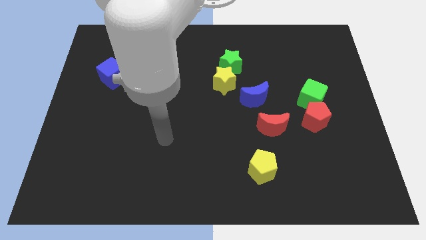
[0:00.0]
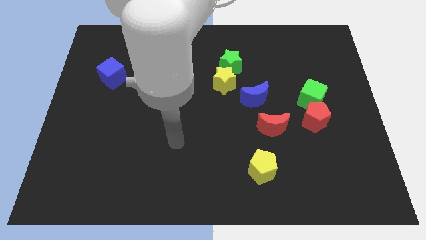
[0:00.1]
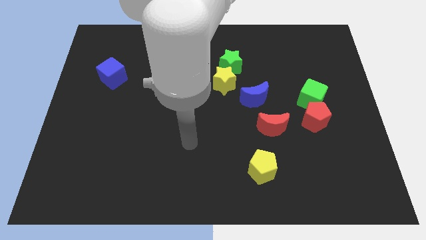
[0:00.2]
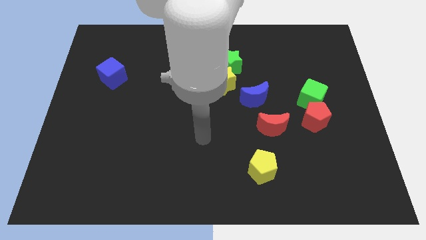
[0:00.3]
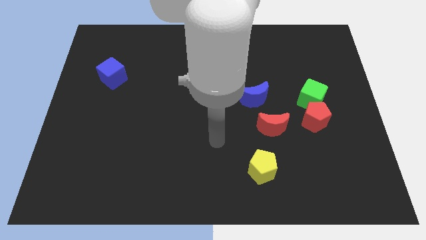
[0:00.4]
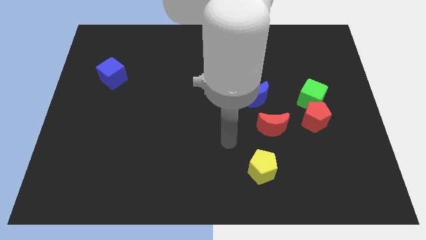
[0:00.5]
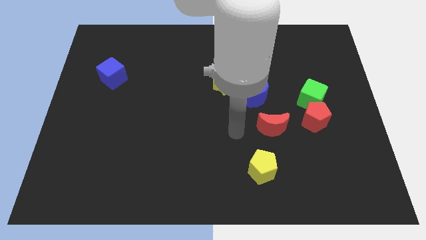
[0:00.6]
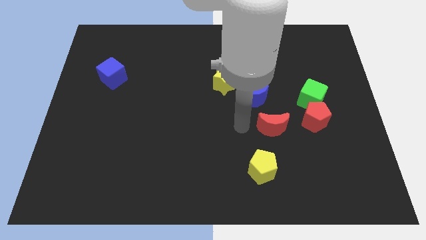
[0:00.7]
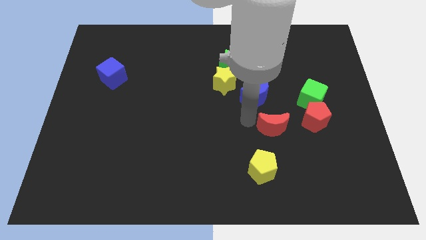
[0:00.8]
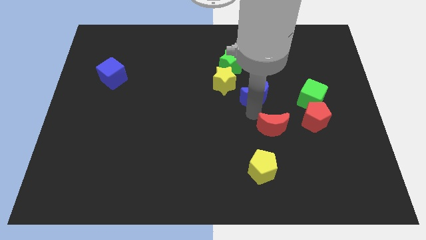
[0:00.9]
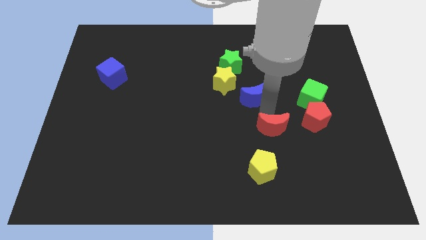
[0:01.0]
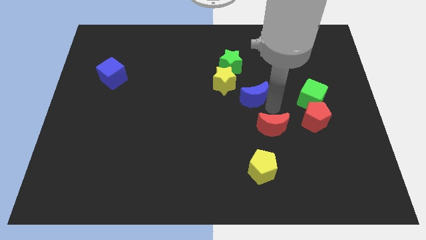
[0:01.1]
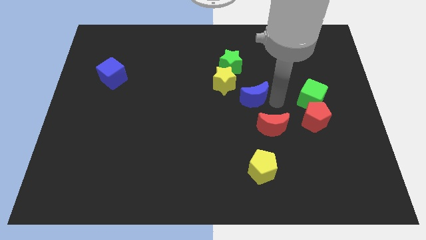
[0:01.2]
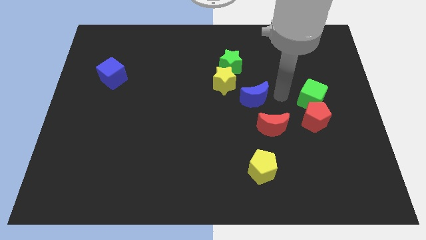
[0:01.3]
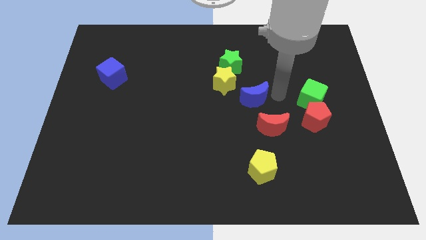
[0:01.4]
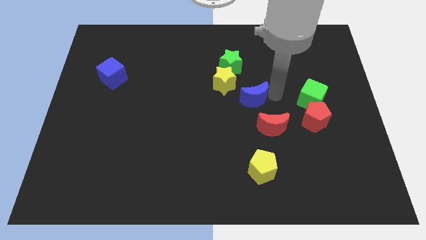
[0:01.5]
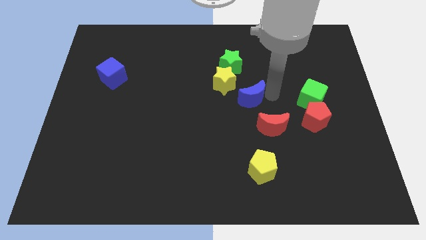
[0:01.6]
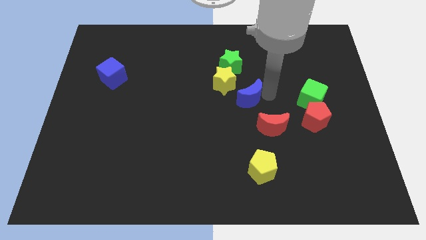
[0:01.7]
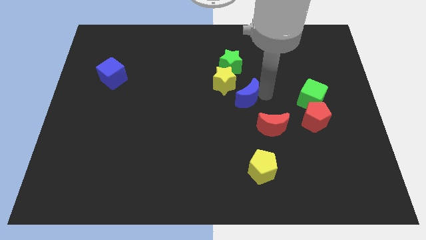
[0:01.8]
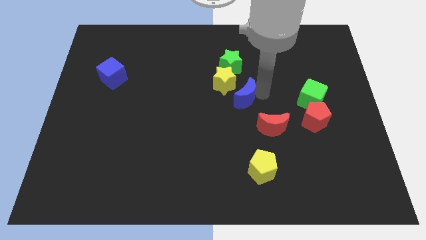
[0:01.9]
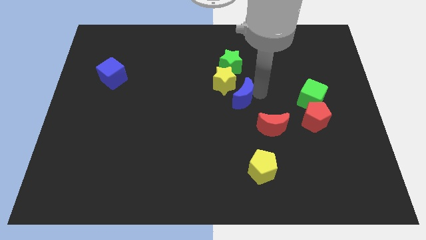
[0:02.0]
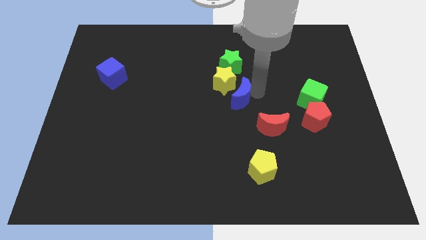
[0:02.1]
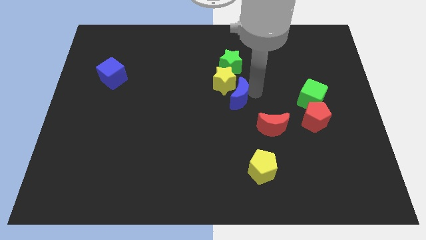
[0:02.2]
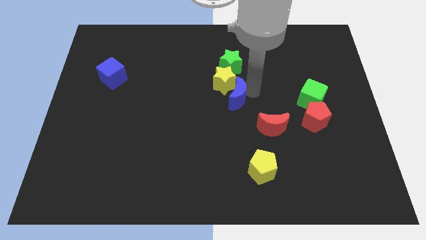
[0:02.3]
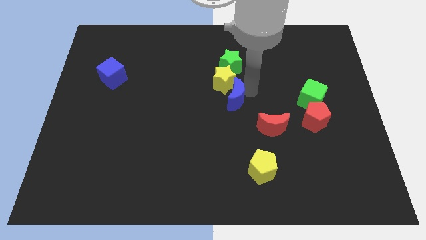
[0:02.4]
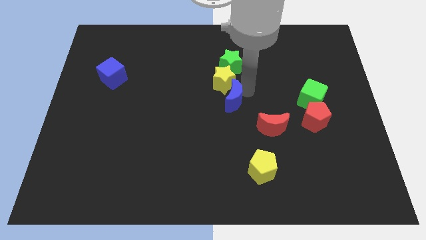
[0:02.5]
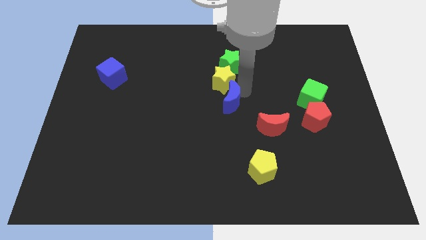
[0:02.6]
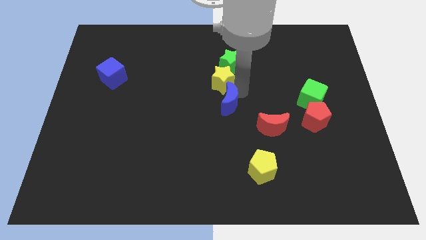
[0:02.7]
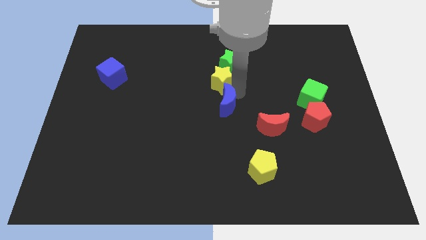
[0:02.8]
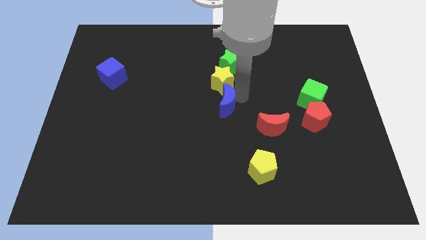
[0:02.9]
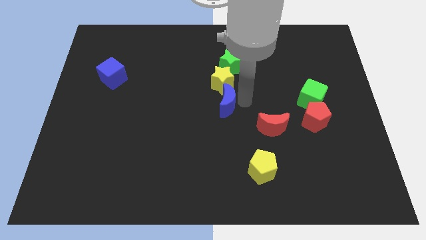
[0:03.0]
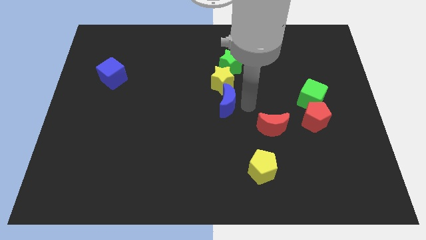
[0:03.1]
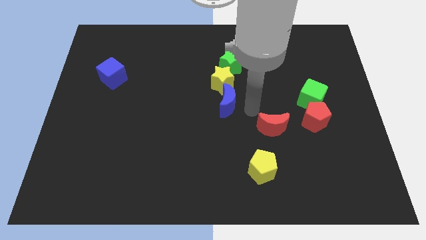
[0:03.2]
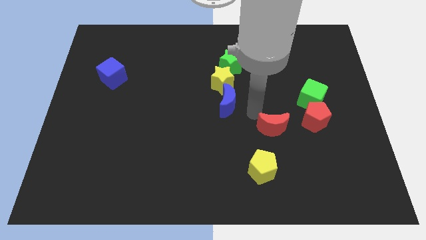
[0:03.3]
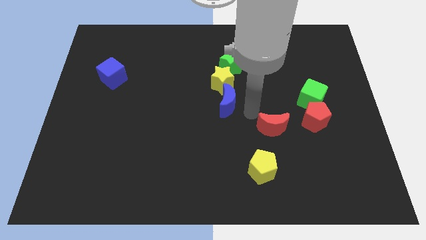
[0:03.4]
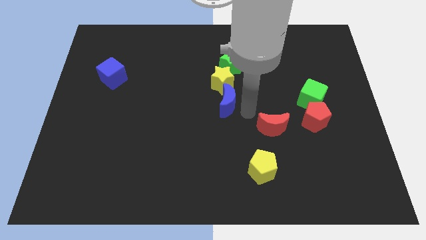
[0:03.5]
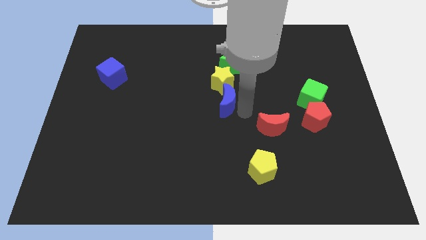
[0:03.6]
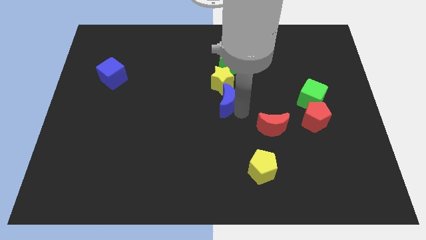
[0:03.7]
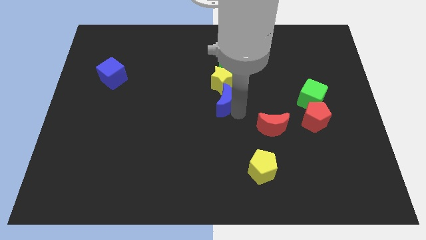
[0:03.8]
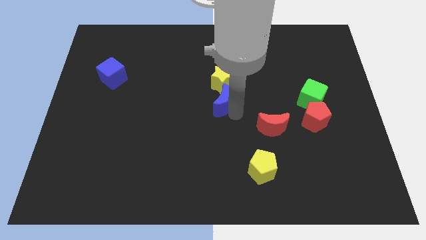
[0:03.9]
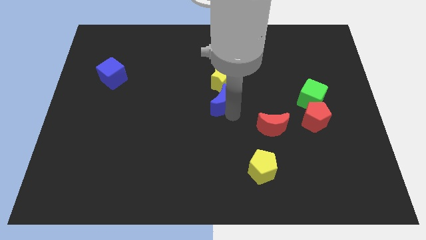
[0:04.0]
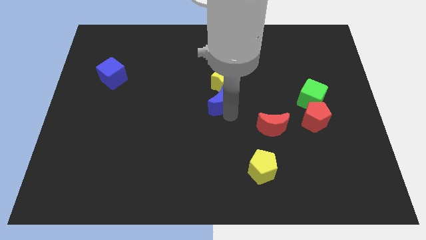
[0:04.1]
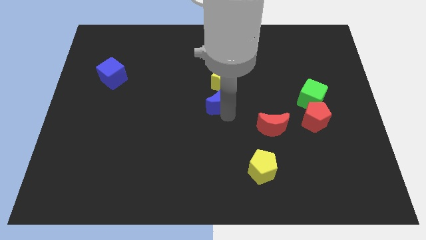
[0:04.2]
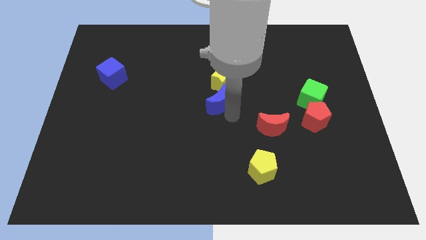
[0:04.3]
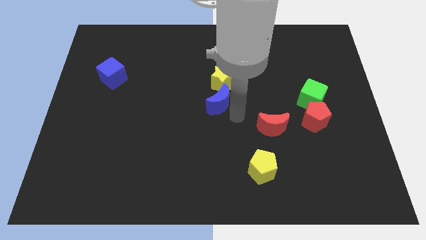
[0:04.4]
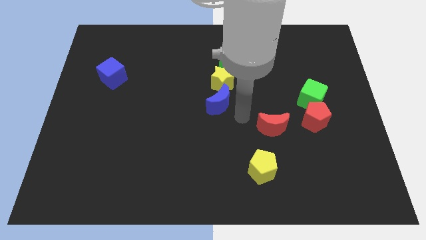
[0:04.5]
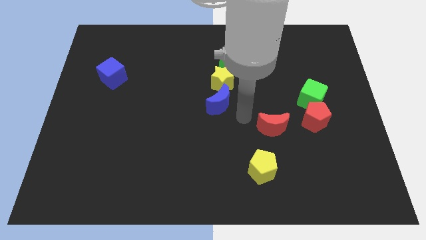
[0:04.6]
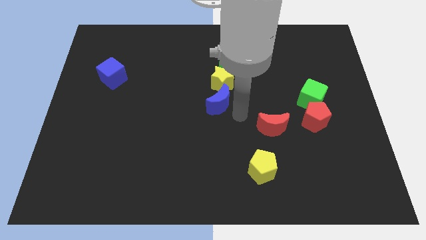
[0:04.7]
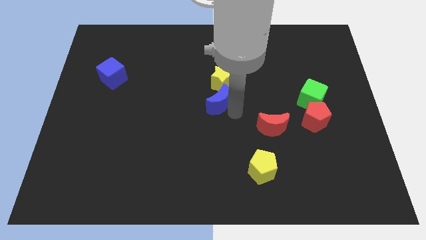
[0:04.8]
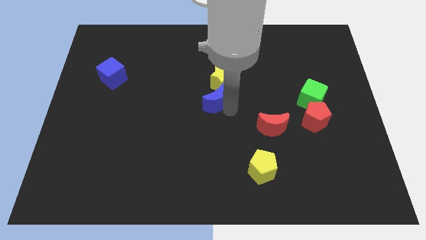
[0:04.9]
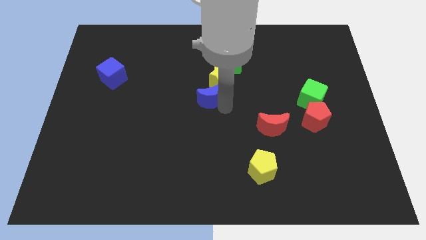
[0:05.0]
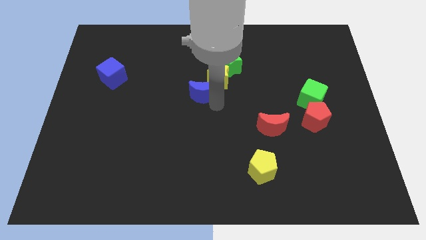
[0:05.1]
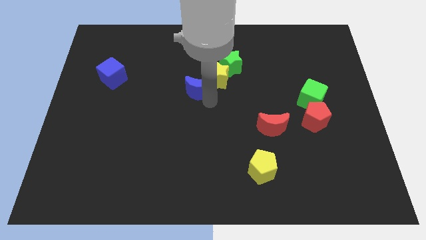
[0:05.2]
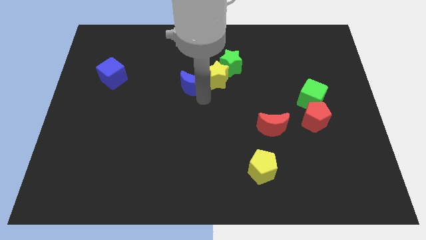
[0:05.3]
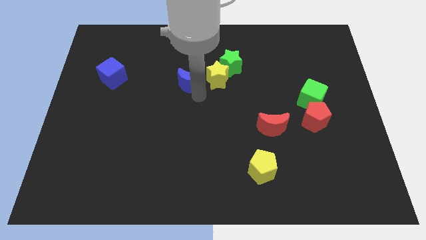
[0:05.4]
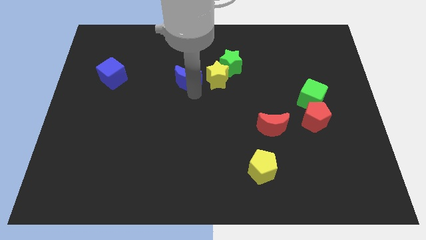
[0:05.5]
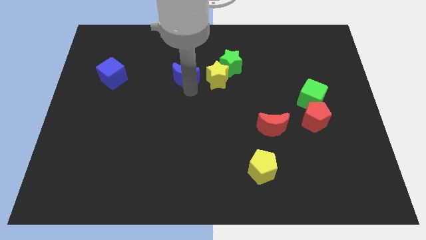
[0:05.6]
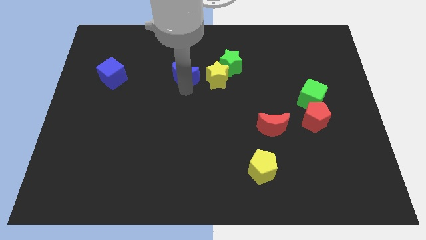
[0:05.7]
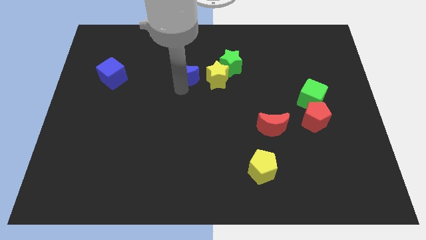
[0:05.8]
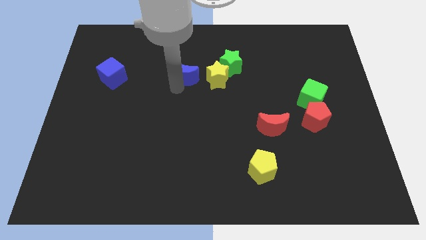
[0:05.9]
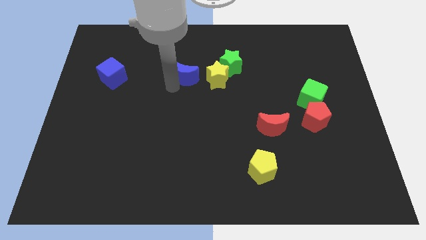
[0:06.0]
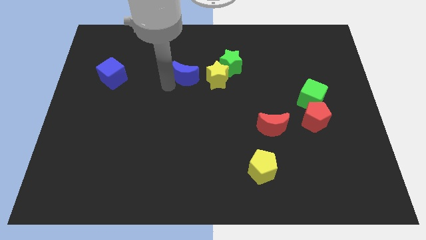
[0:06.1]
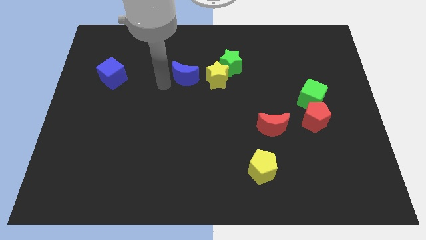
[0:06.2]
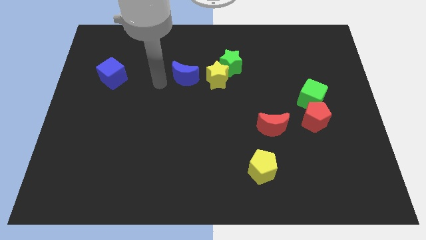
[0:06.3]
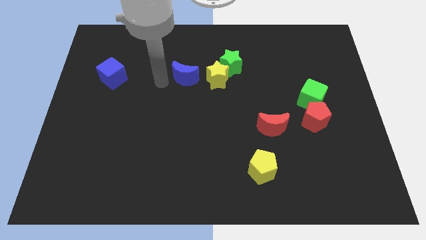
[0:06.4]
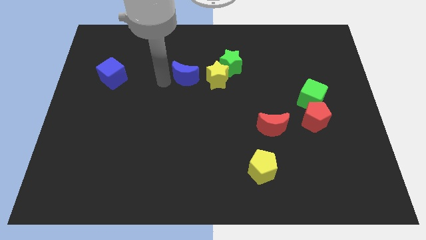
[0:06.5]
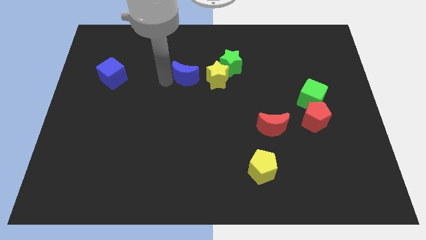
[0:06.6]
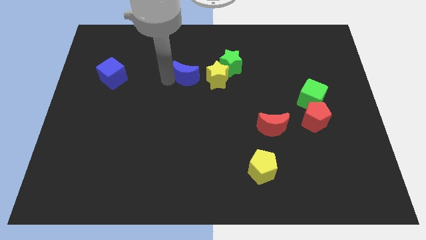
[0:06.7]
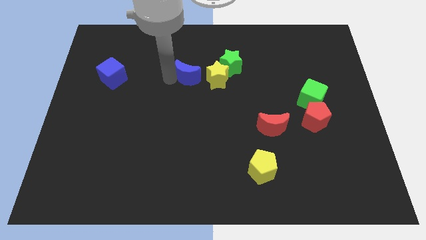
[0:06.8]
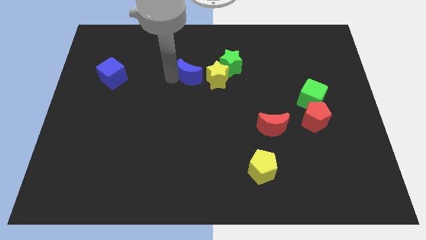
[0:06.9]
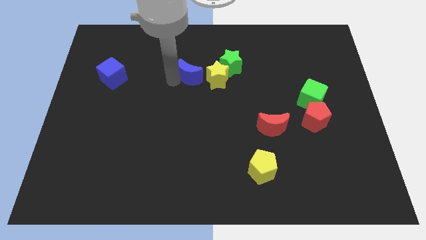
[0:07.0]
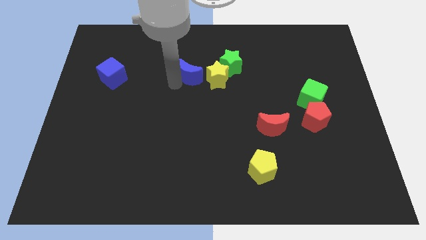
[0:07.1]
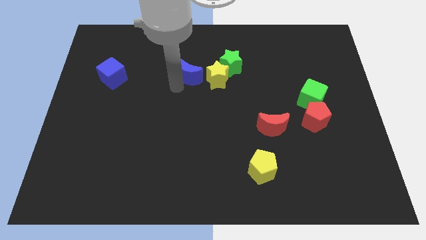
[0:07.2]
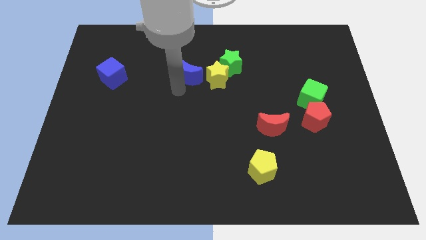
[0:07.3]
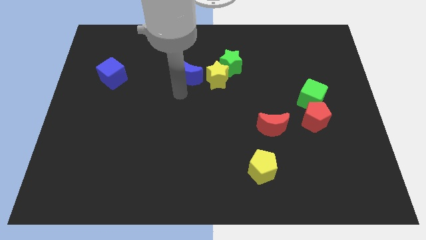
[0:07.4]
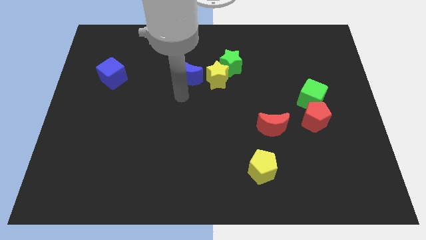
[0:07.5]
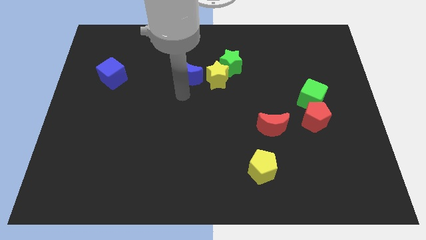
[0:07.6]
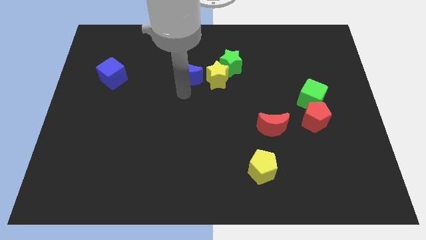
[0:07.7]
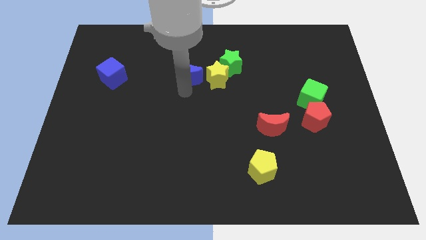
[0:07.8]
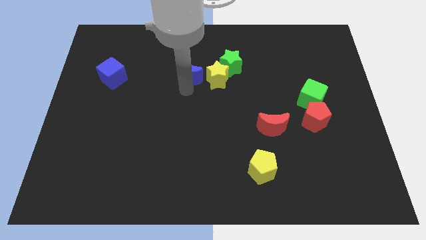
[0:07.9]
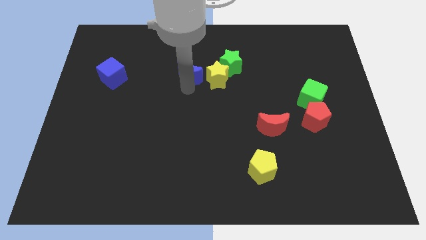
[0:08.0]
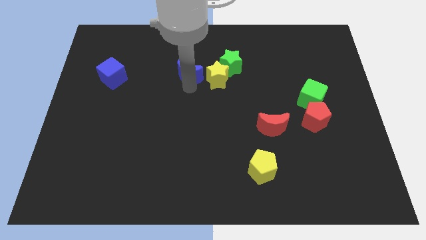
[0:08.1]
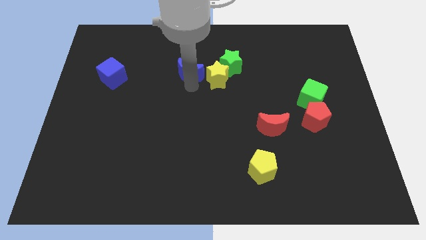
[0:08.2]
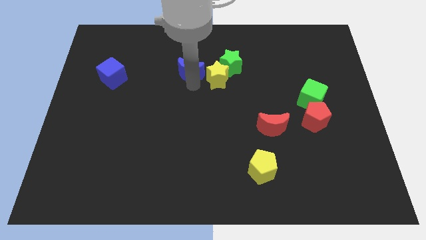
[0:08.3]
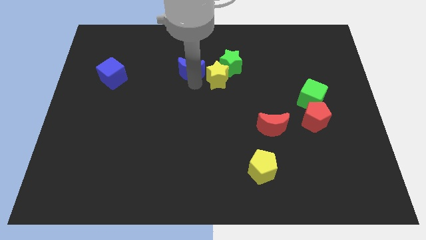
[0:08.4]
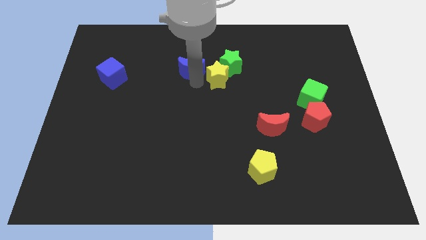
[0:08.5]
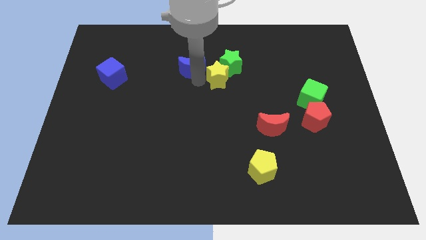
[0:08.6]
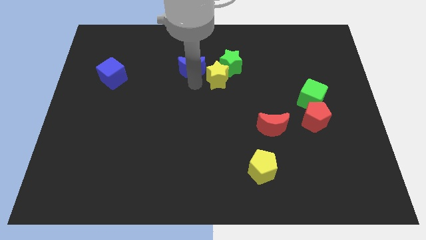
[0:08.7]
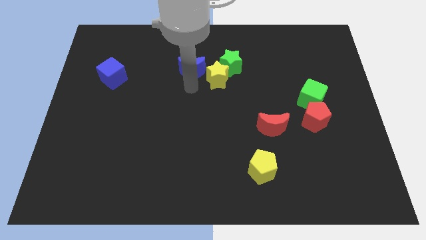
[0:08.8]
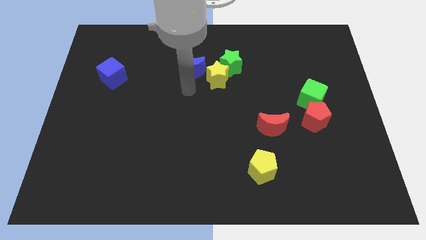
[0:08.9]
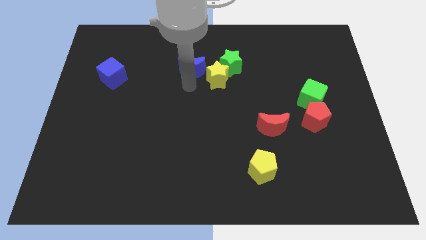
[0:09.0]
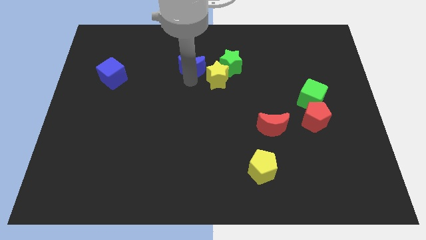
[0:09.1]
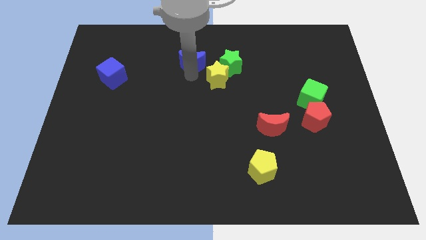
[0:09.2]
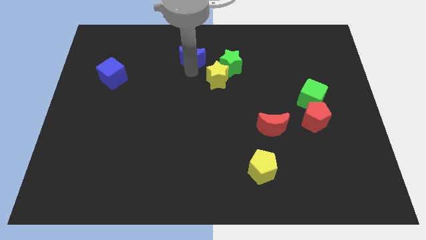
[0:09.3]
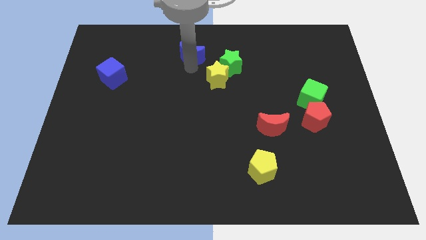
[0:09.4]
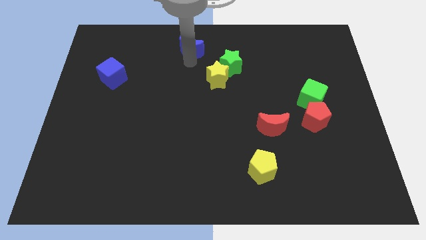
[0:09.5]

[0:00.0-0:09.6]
slide the blue moon to the towards your base
